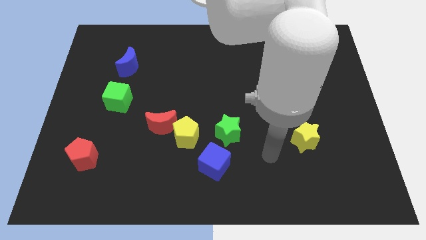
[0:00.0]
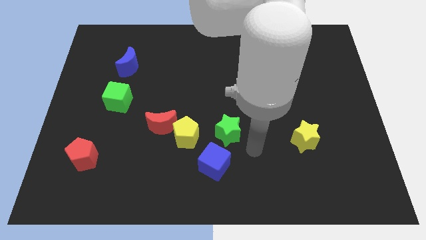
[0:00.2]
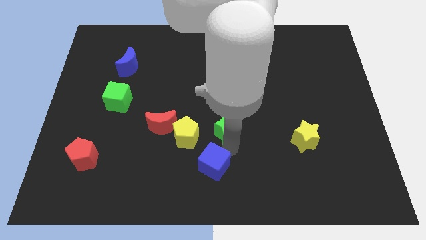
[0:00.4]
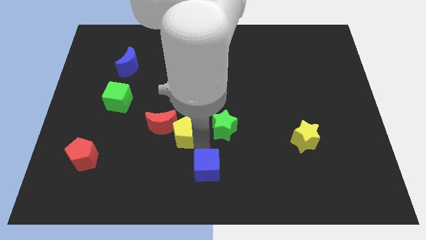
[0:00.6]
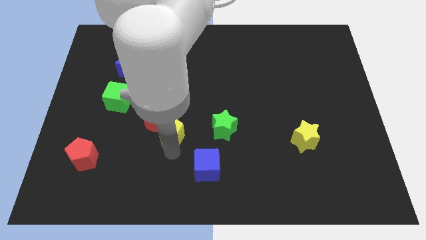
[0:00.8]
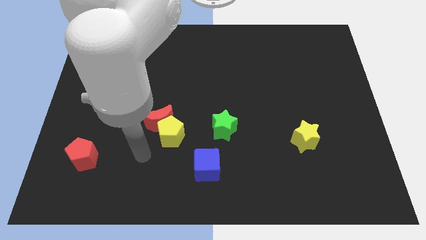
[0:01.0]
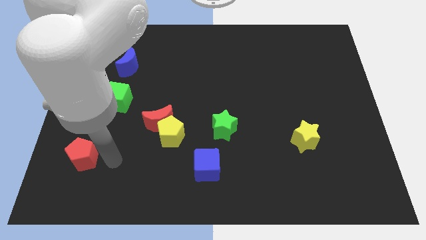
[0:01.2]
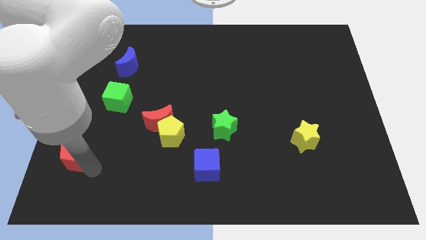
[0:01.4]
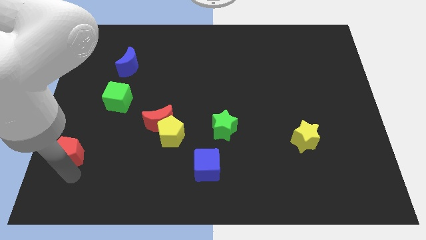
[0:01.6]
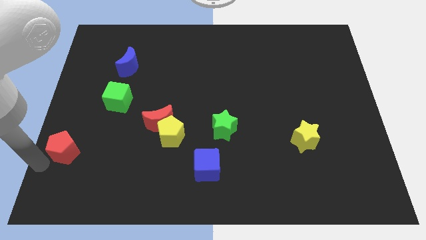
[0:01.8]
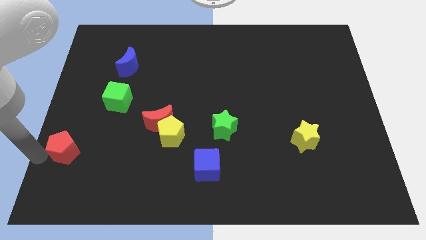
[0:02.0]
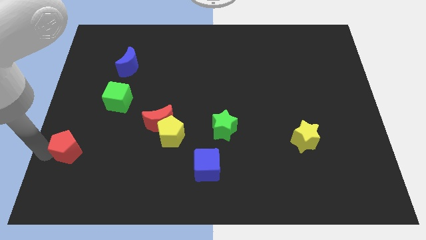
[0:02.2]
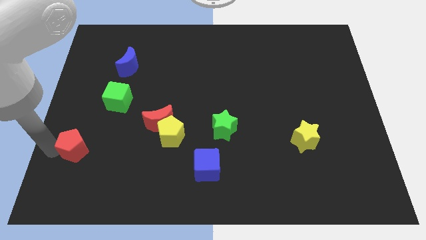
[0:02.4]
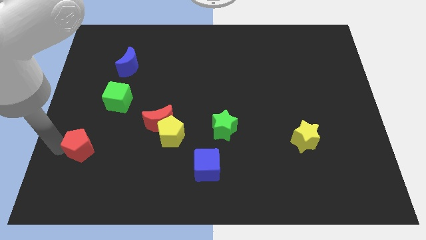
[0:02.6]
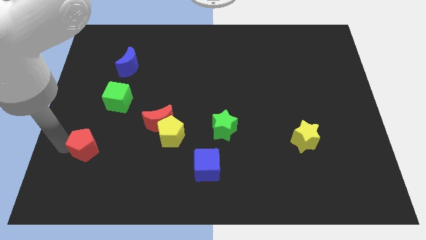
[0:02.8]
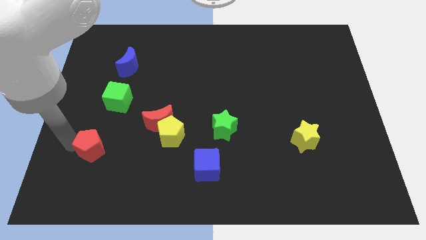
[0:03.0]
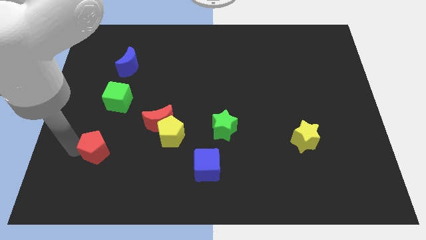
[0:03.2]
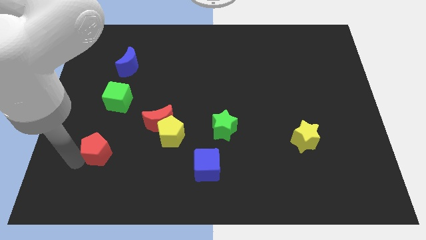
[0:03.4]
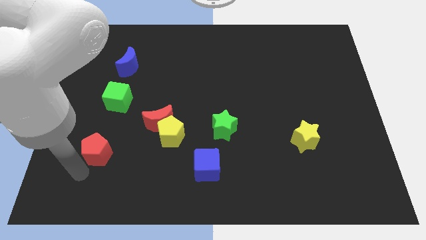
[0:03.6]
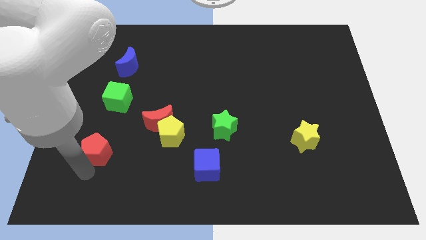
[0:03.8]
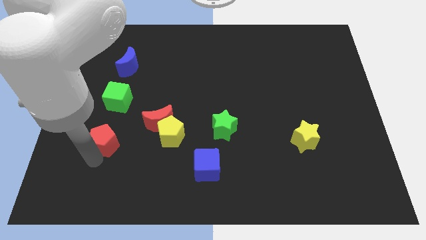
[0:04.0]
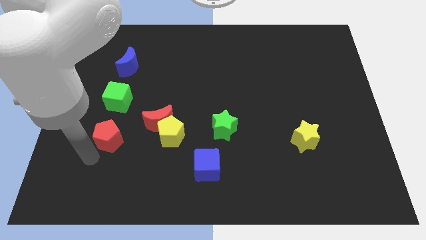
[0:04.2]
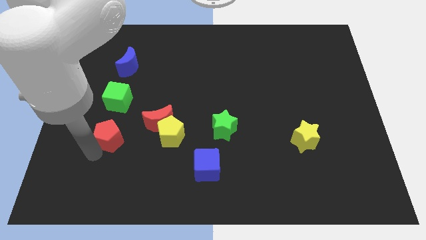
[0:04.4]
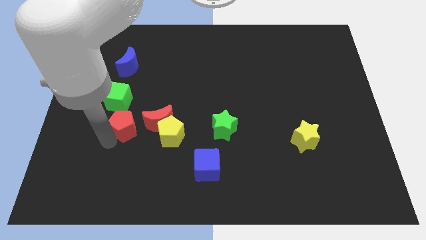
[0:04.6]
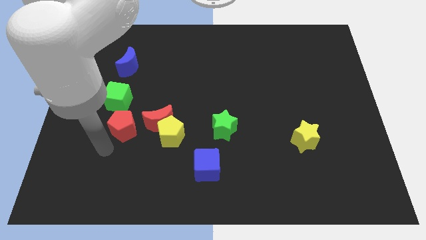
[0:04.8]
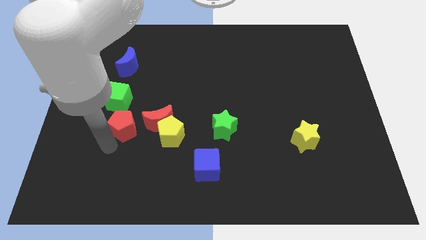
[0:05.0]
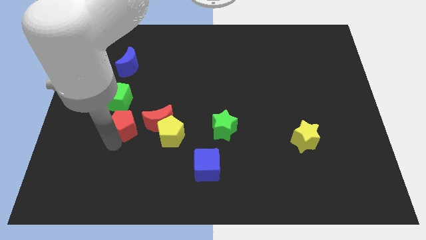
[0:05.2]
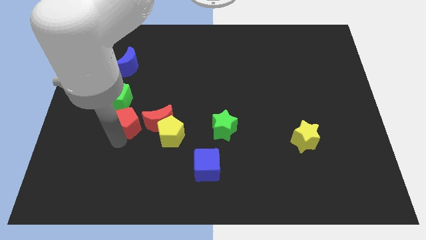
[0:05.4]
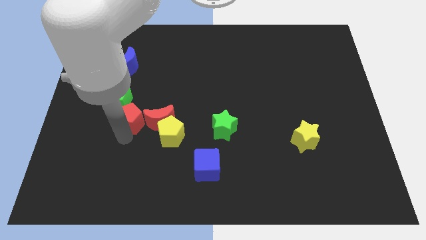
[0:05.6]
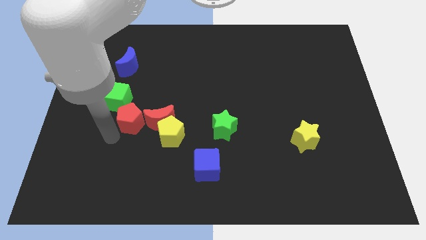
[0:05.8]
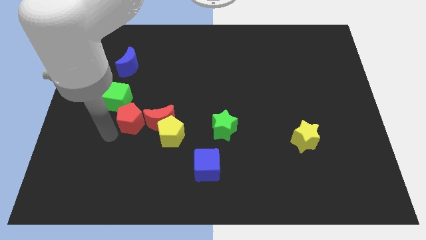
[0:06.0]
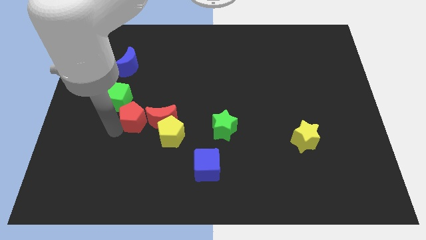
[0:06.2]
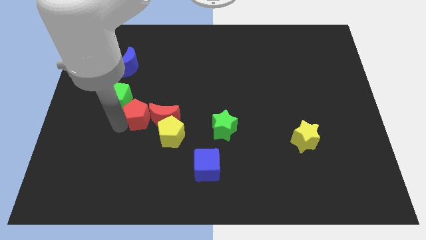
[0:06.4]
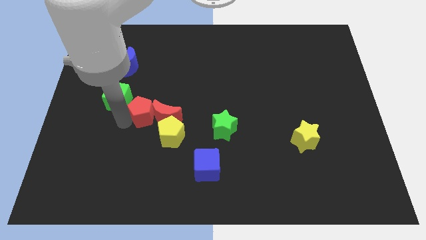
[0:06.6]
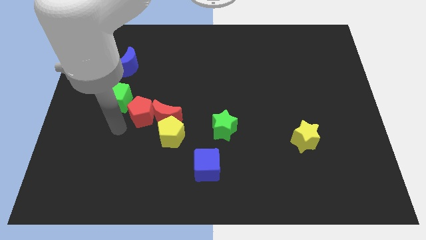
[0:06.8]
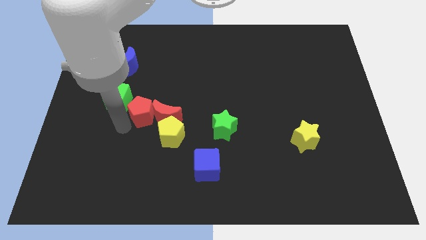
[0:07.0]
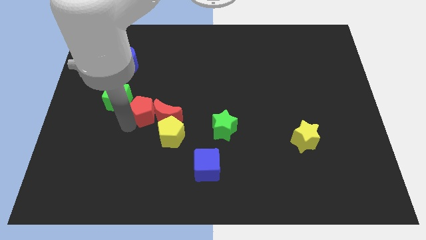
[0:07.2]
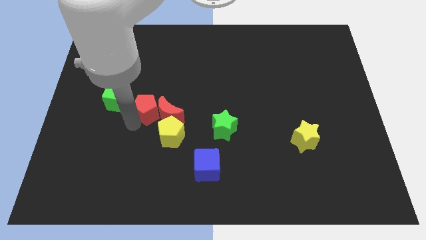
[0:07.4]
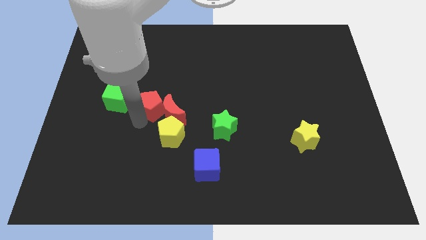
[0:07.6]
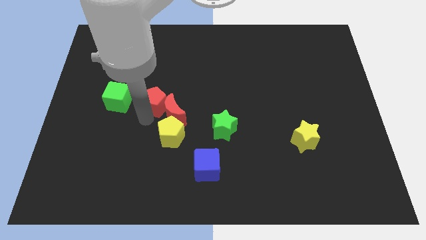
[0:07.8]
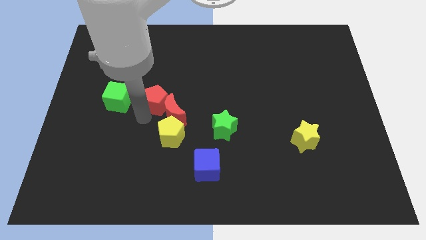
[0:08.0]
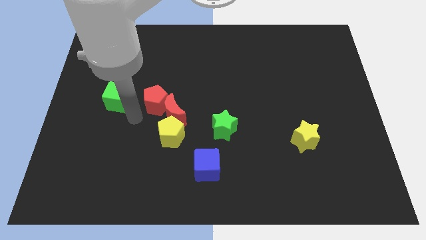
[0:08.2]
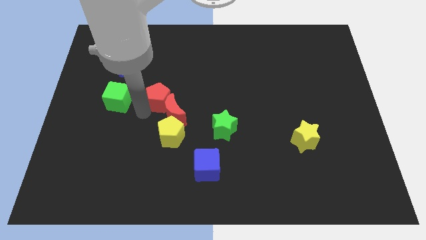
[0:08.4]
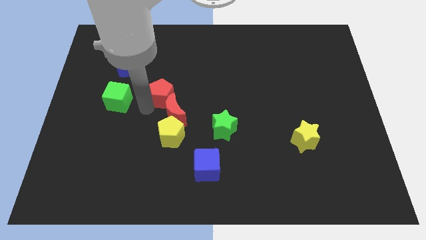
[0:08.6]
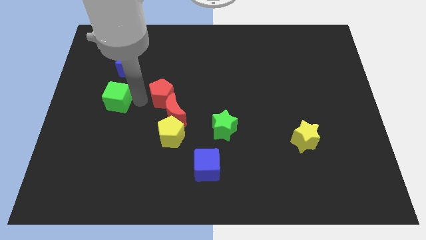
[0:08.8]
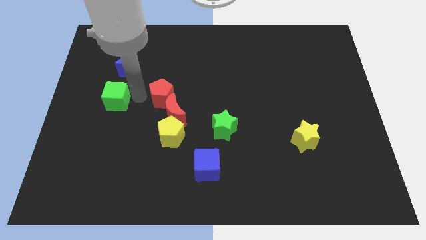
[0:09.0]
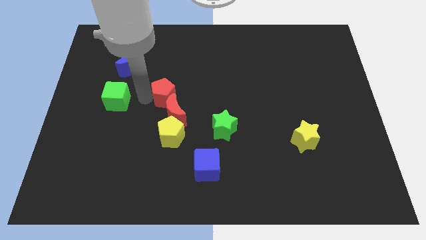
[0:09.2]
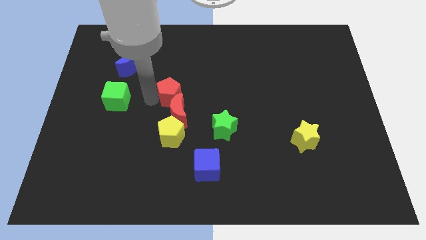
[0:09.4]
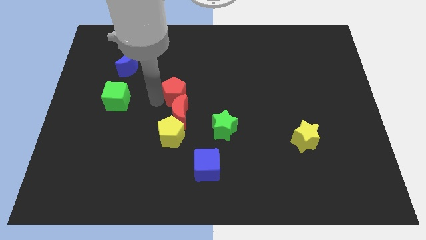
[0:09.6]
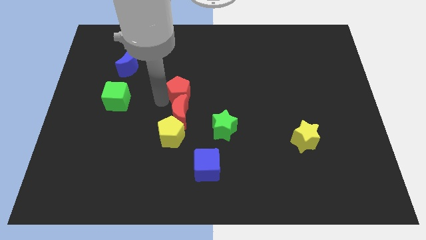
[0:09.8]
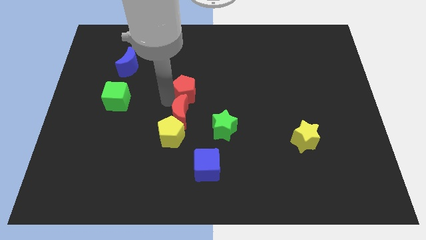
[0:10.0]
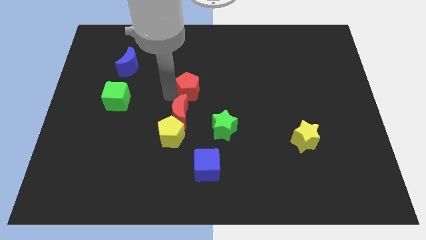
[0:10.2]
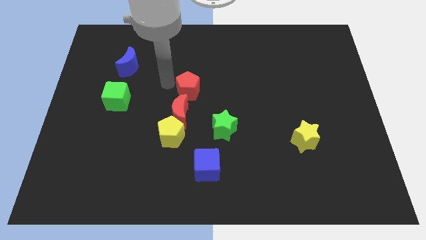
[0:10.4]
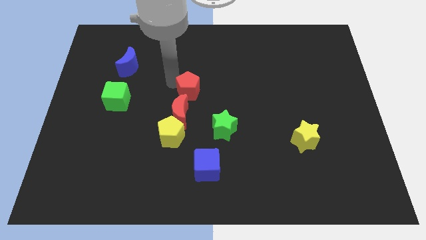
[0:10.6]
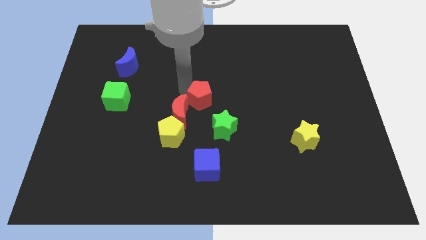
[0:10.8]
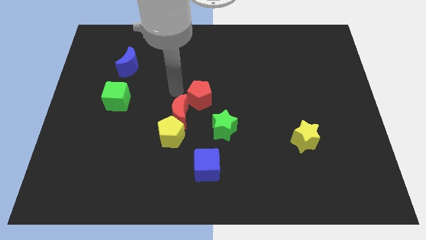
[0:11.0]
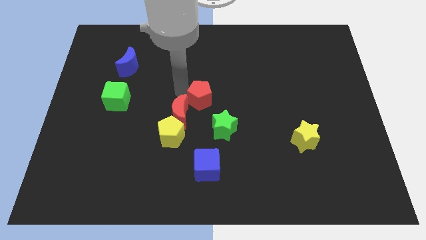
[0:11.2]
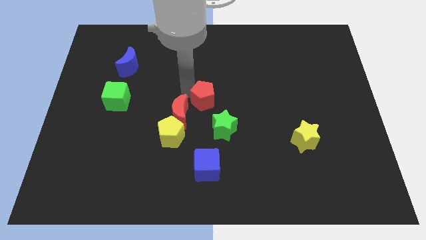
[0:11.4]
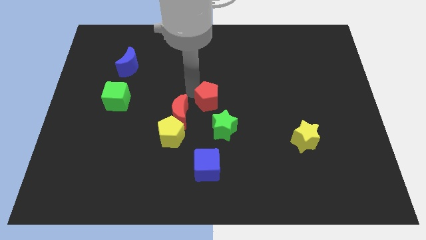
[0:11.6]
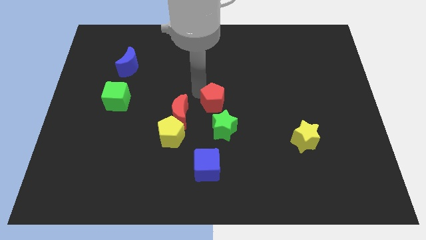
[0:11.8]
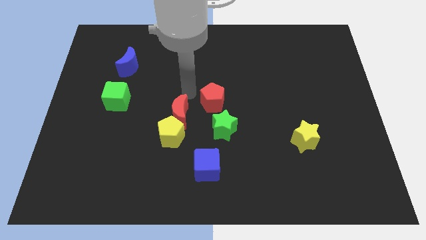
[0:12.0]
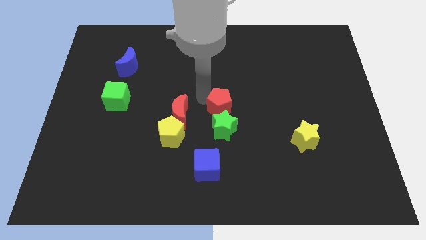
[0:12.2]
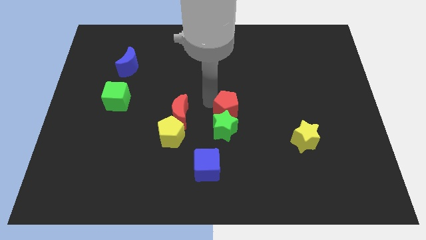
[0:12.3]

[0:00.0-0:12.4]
push the red pentagon to the top right side of the green star

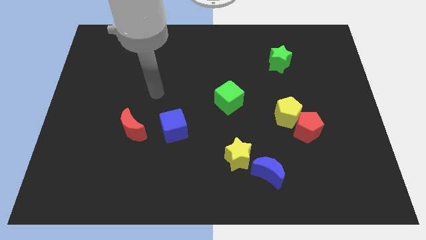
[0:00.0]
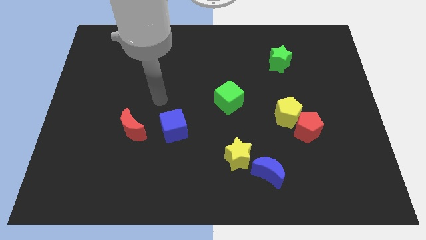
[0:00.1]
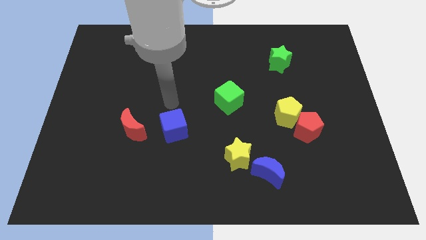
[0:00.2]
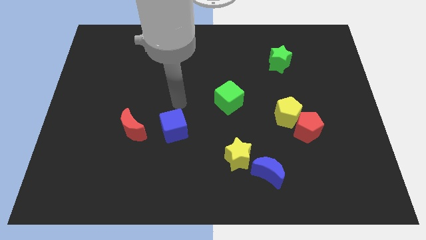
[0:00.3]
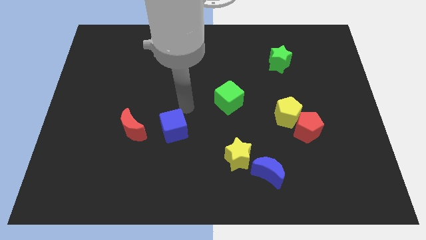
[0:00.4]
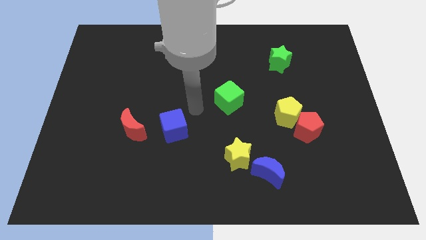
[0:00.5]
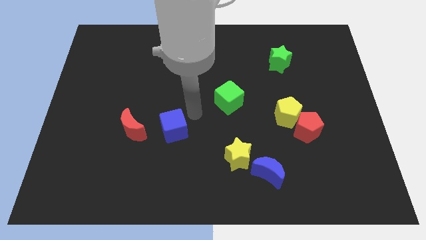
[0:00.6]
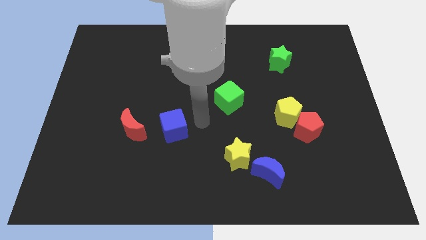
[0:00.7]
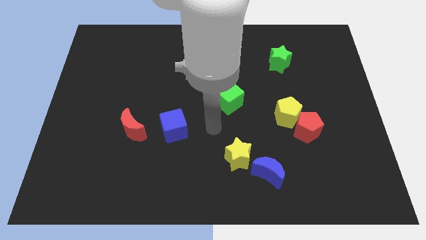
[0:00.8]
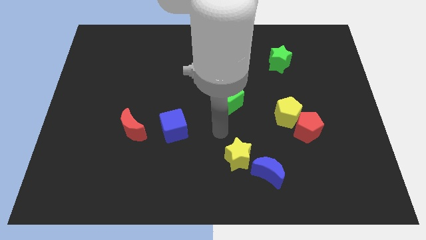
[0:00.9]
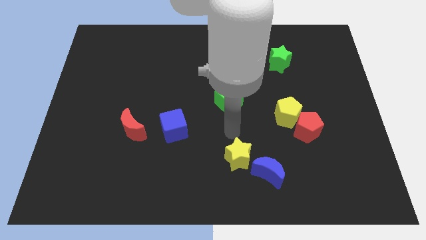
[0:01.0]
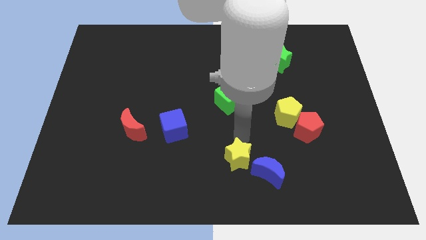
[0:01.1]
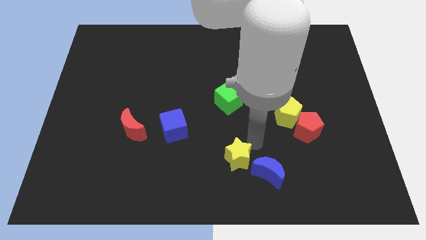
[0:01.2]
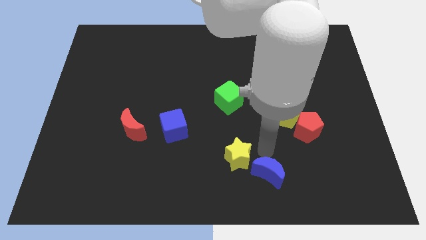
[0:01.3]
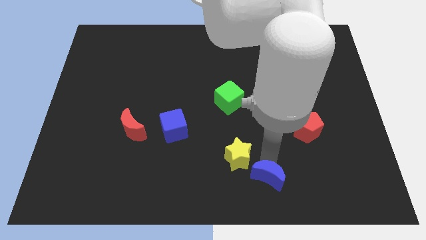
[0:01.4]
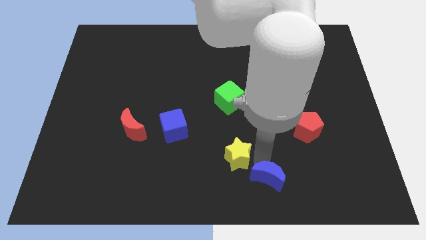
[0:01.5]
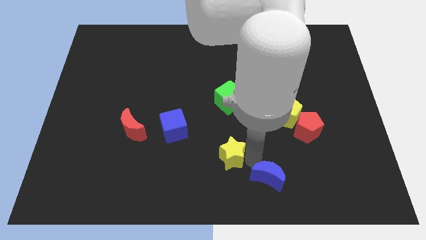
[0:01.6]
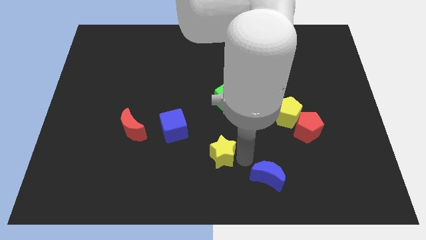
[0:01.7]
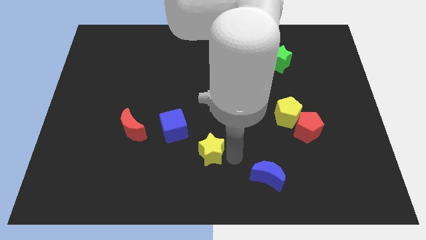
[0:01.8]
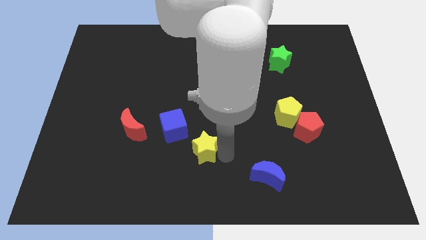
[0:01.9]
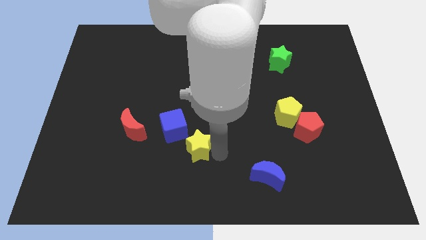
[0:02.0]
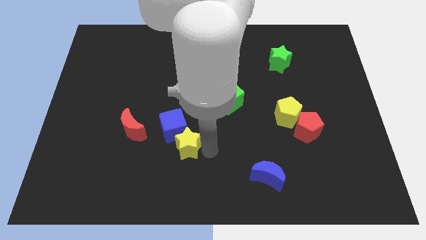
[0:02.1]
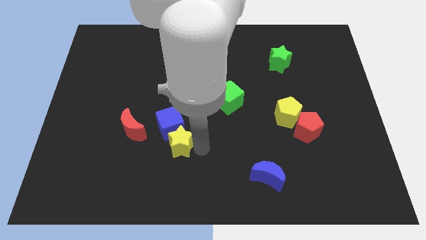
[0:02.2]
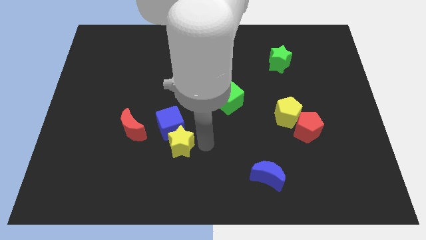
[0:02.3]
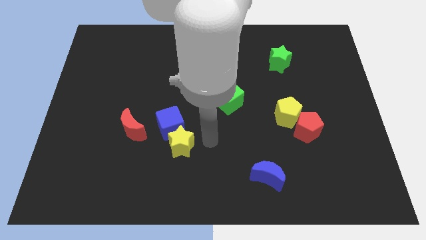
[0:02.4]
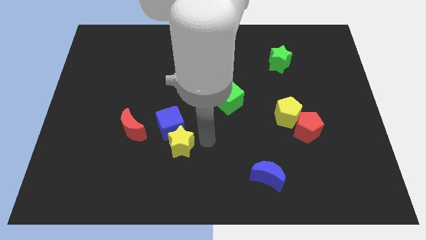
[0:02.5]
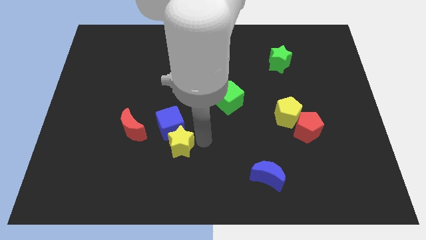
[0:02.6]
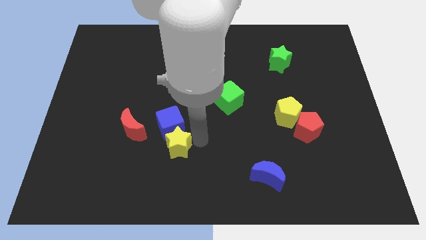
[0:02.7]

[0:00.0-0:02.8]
slide the yellow star to the bottom right of the red moon
